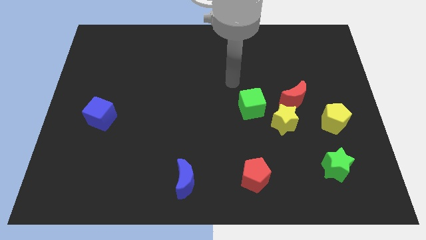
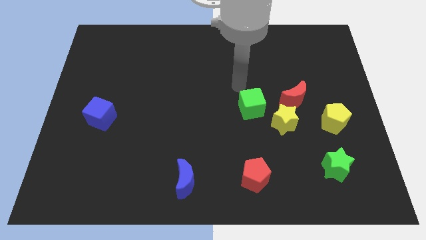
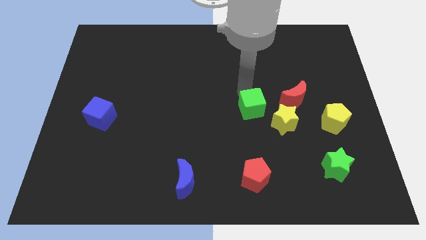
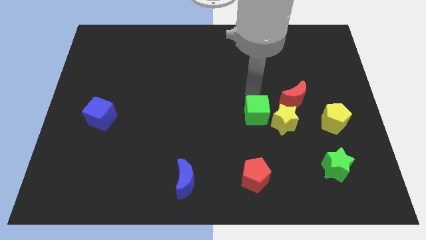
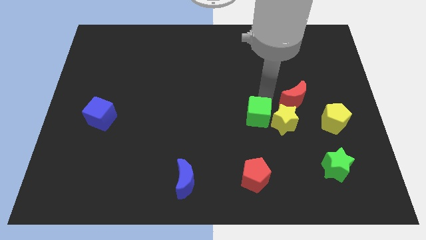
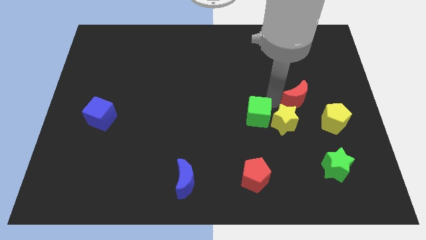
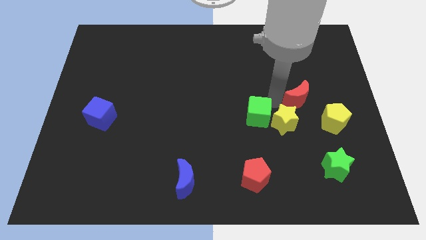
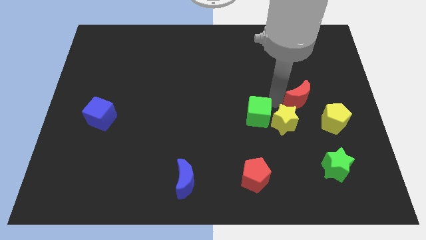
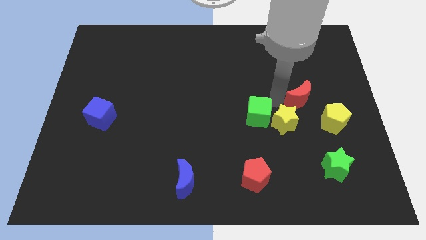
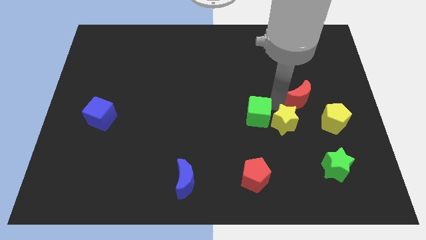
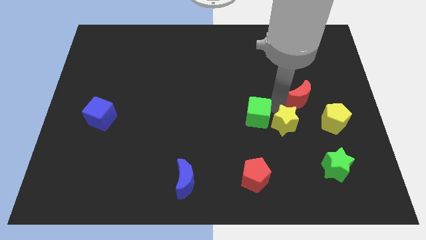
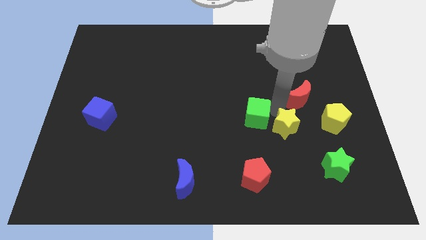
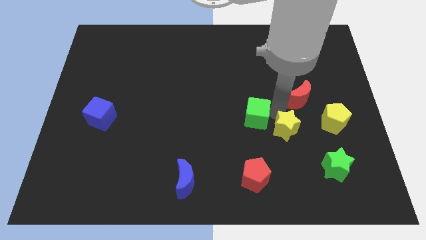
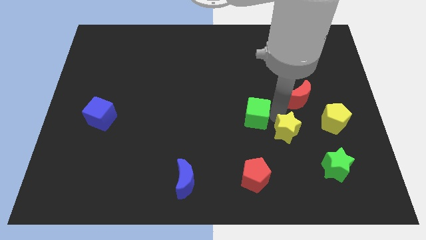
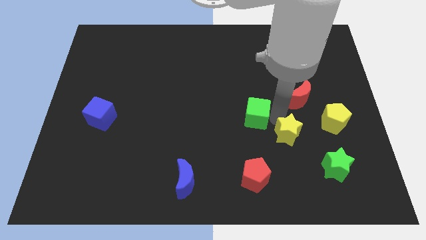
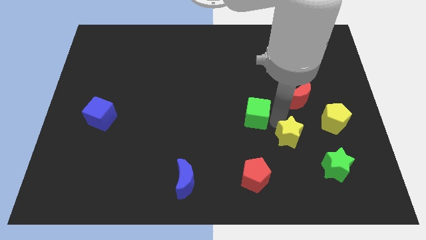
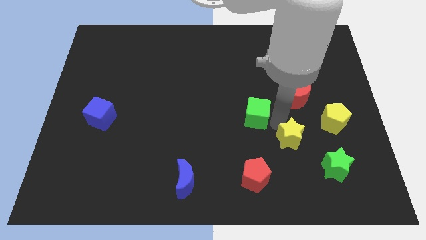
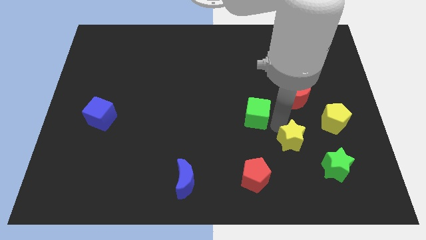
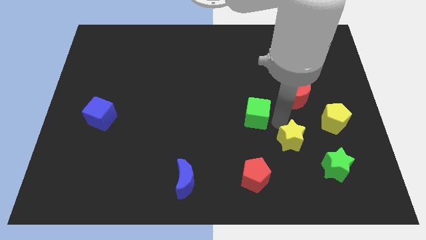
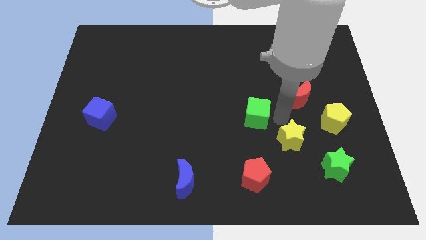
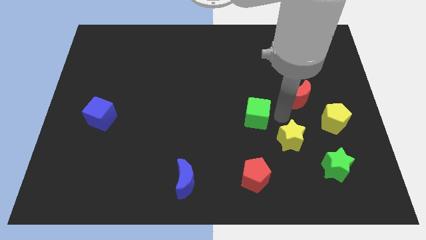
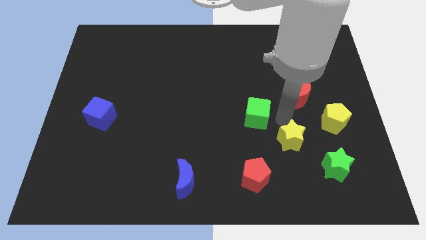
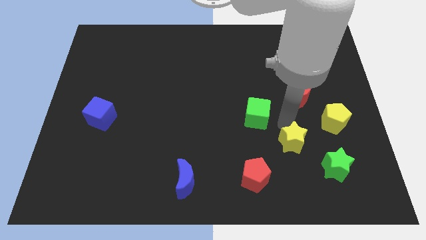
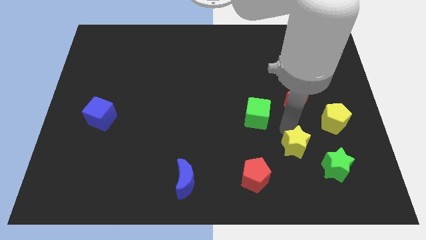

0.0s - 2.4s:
separate the yellow star from the red moon and green cube

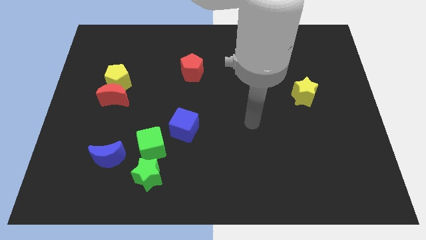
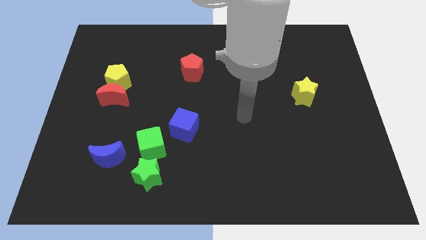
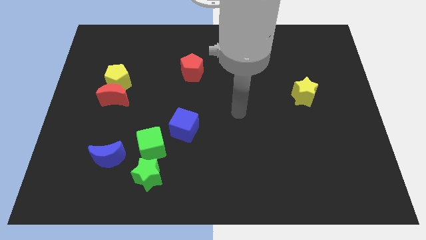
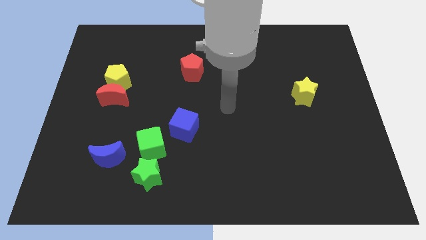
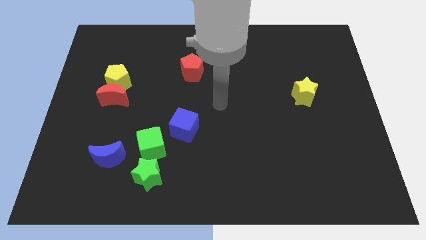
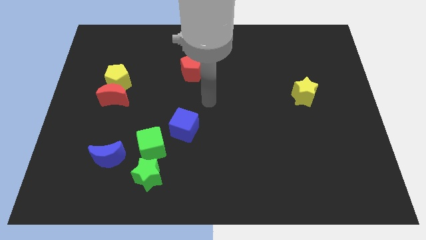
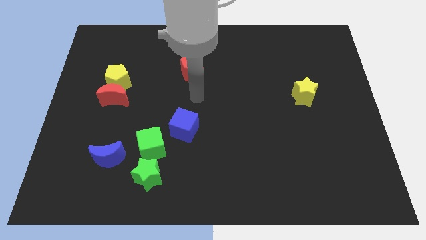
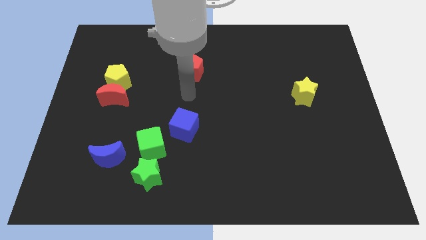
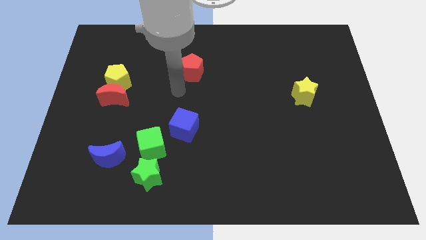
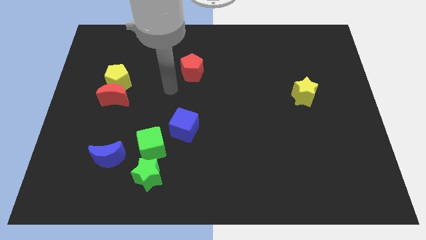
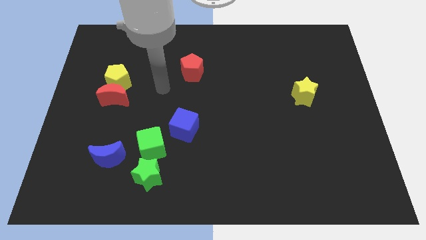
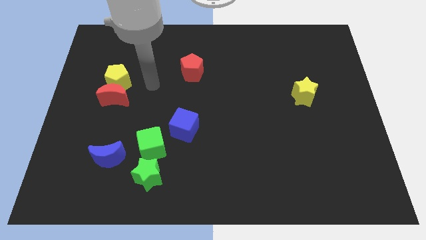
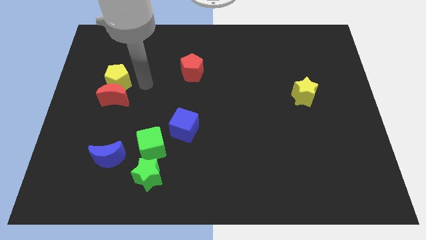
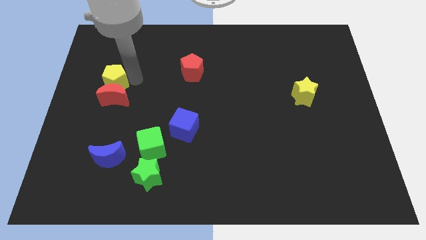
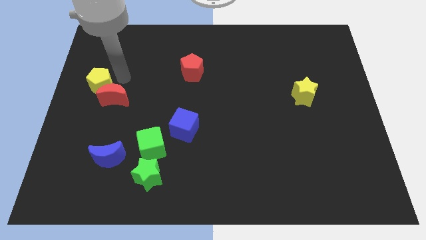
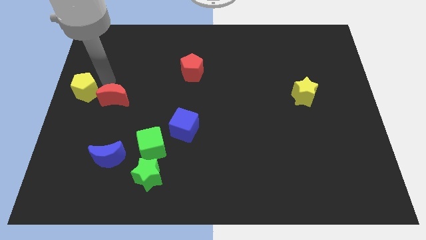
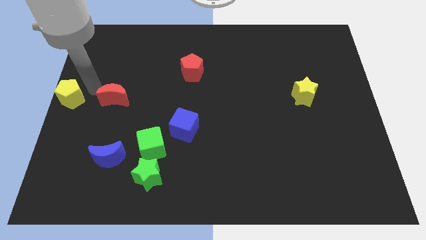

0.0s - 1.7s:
pull the red moon apart from the yellow pentagon

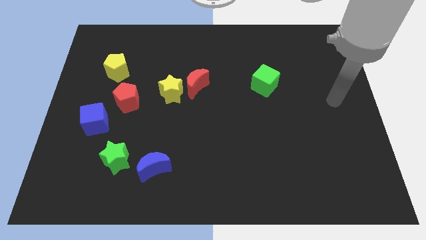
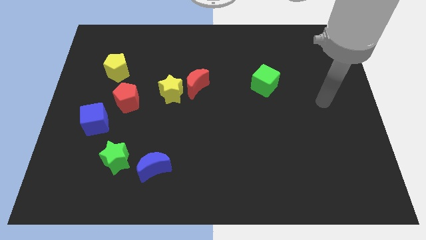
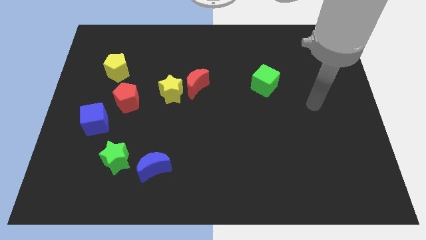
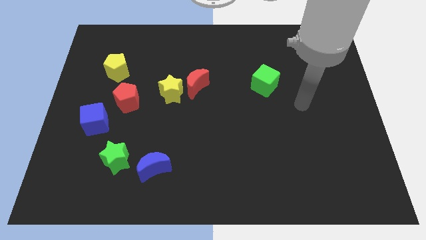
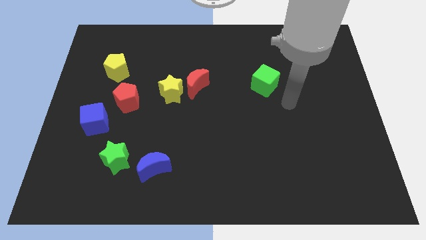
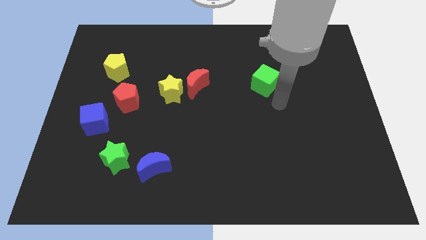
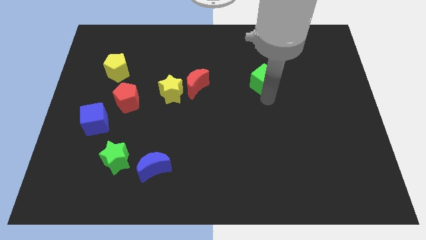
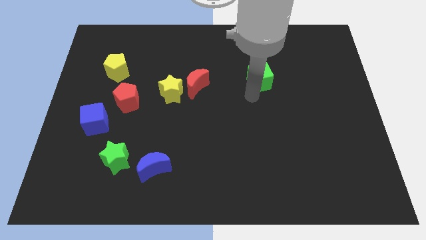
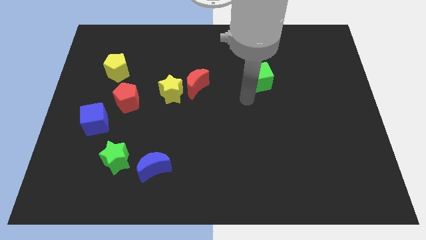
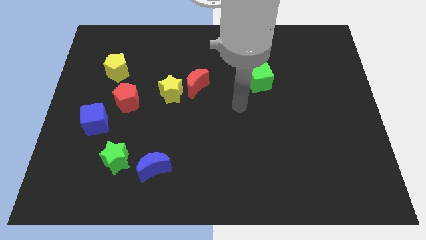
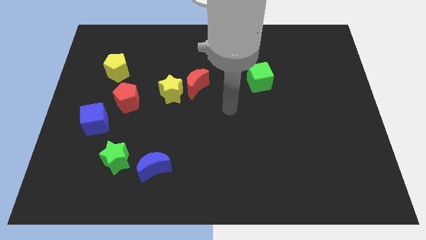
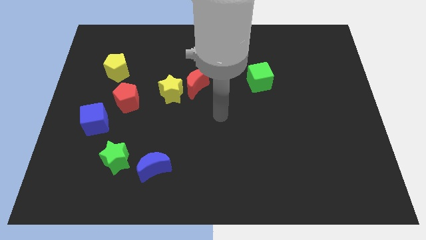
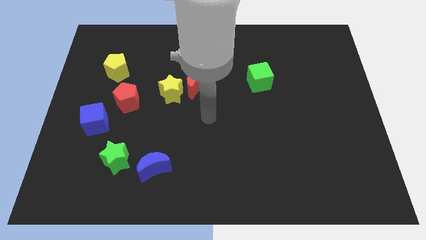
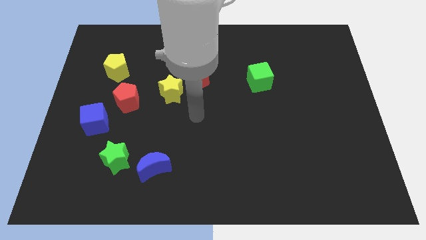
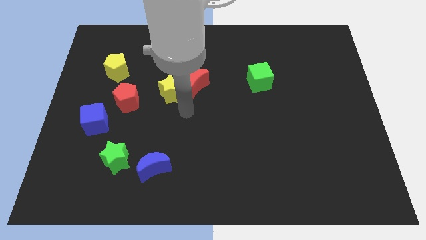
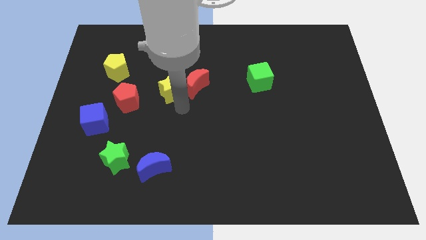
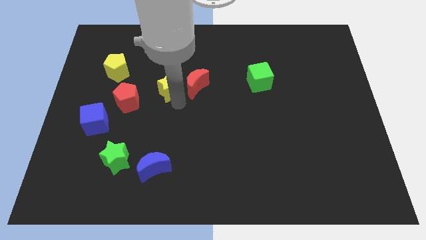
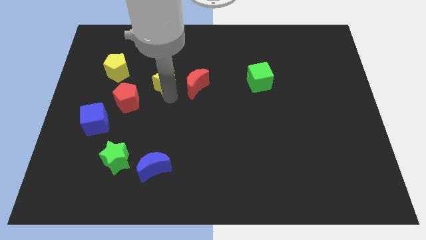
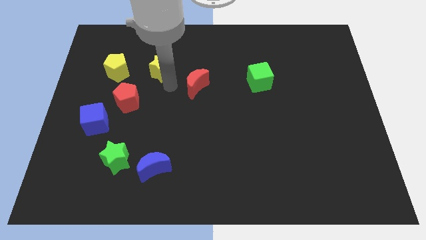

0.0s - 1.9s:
pull the red moon apart from the yellow star

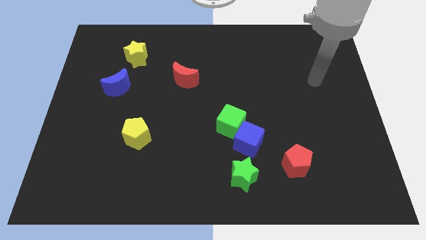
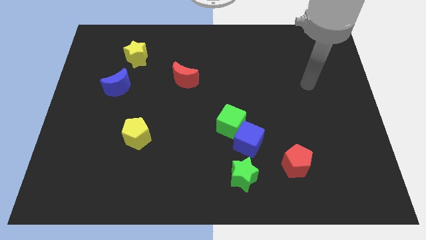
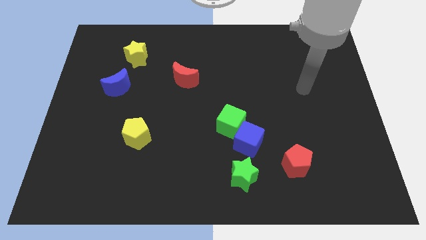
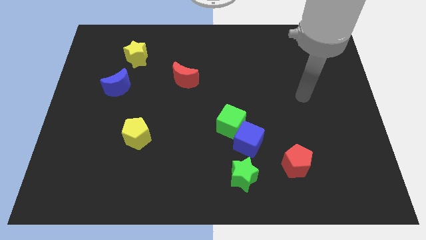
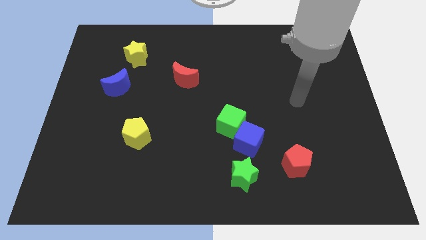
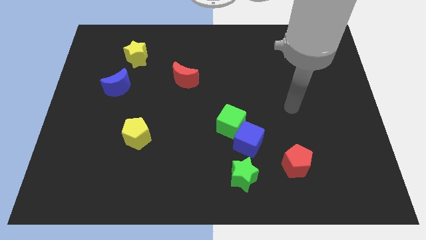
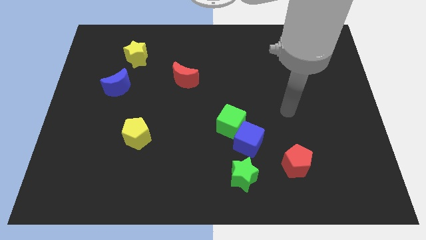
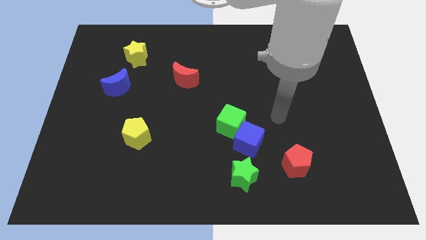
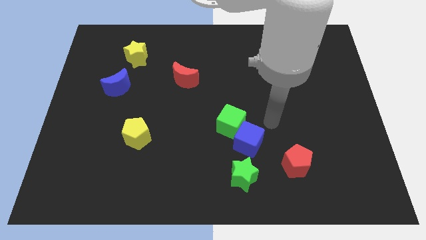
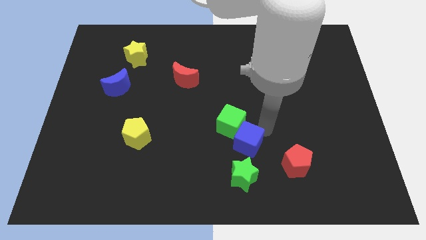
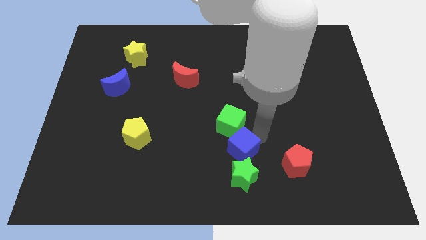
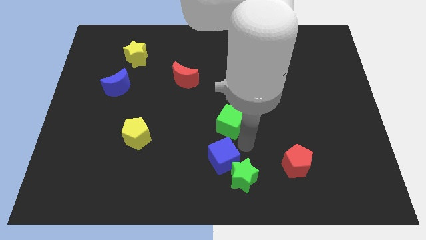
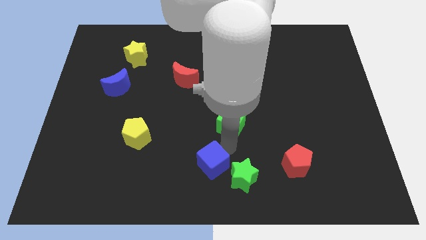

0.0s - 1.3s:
move the green cube away from the blue cube

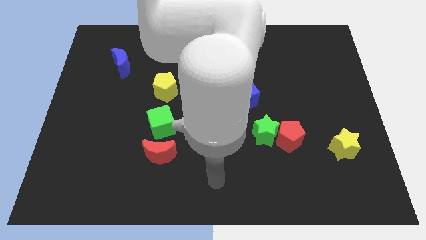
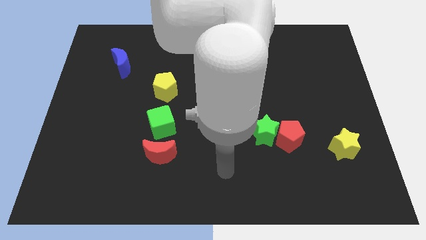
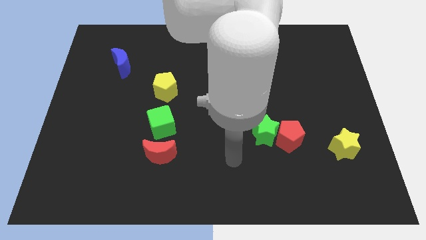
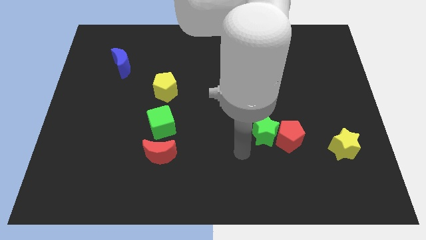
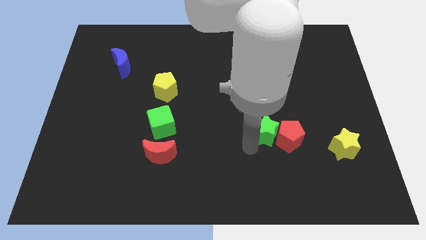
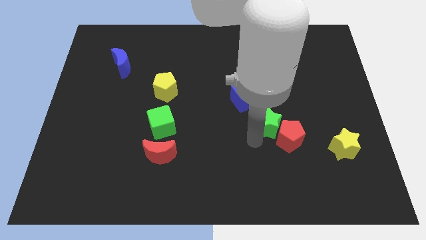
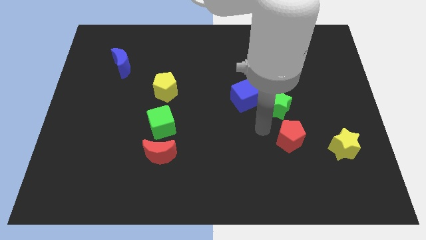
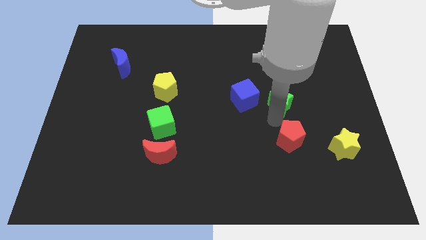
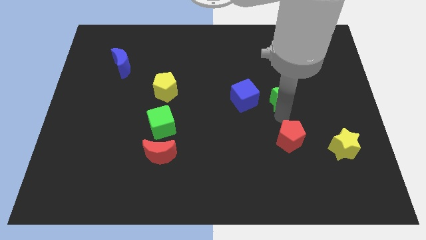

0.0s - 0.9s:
move the red pentagon away from the green star

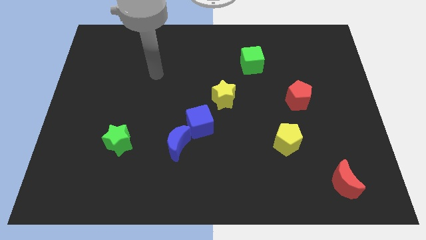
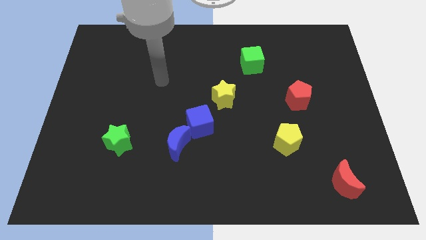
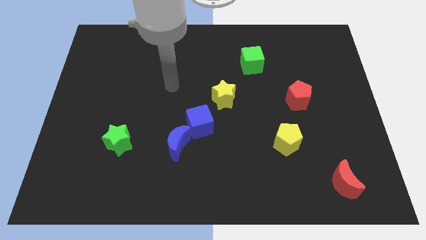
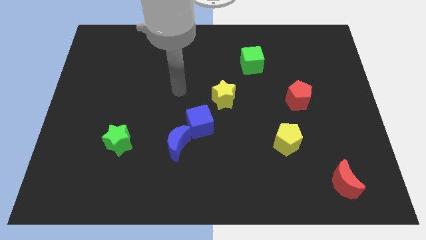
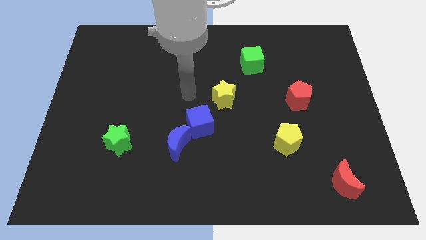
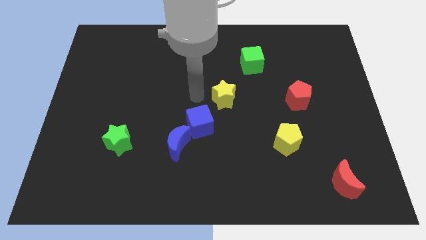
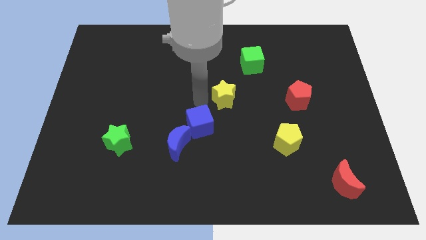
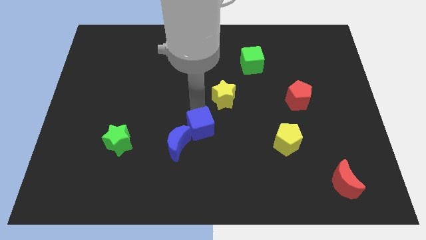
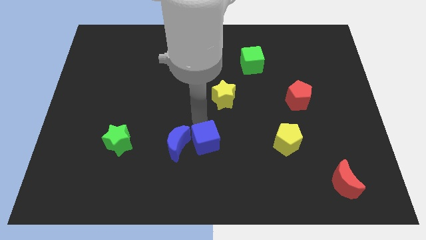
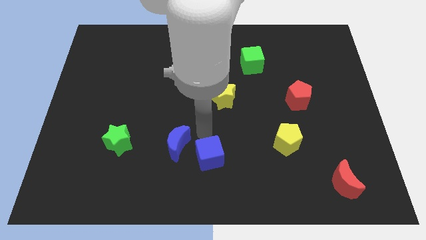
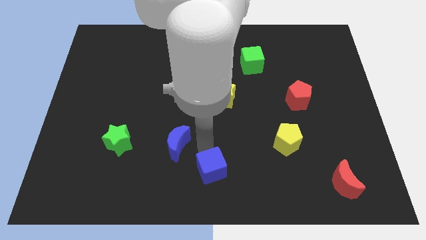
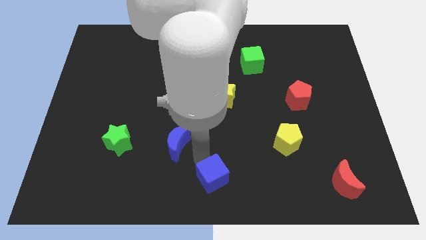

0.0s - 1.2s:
separate the blue moon from the blue cube
